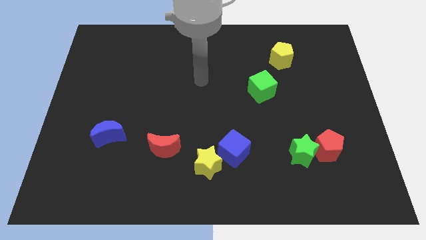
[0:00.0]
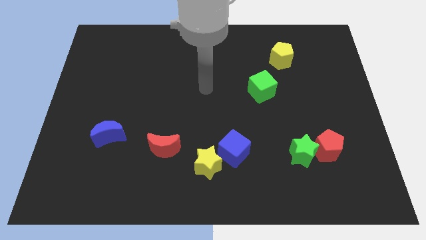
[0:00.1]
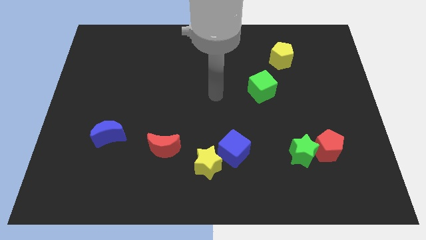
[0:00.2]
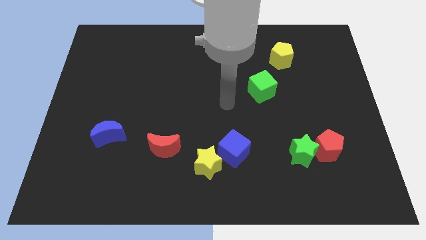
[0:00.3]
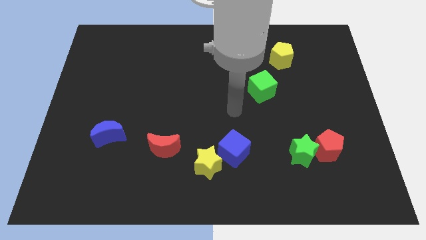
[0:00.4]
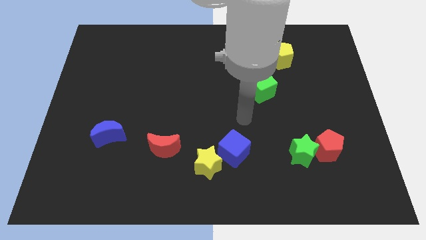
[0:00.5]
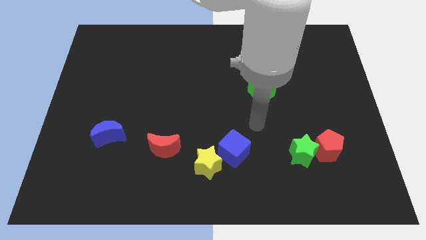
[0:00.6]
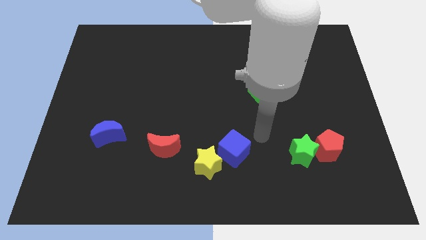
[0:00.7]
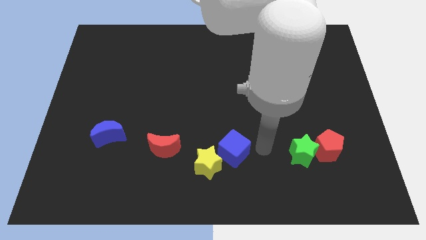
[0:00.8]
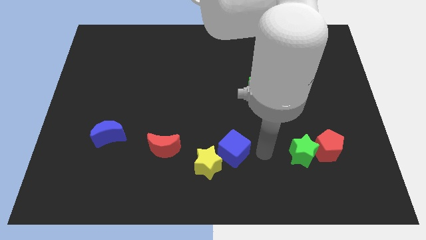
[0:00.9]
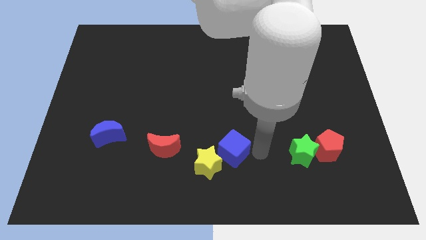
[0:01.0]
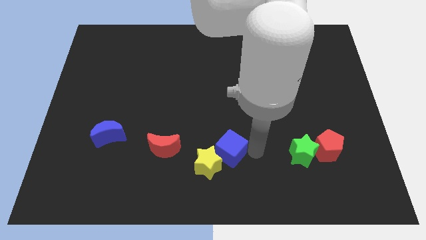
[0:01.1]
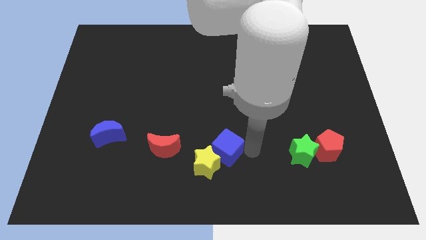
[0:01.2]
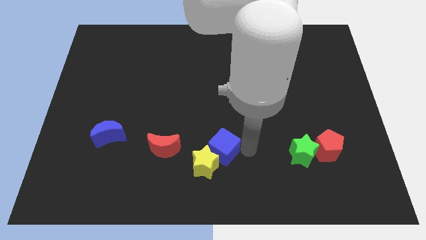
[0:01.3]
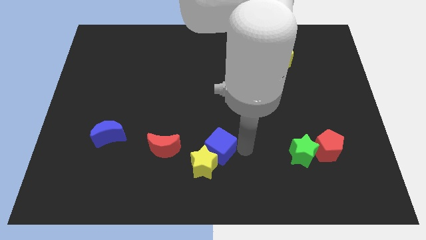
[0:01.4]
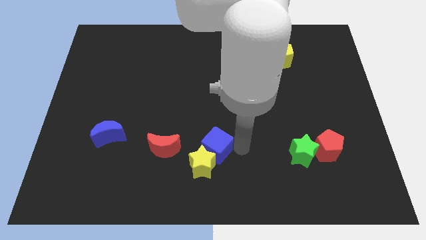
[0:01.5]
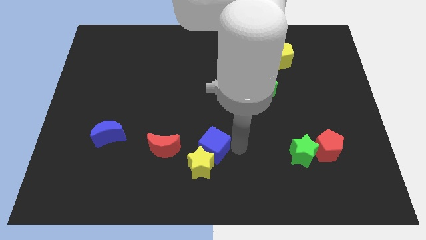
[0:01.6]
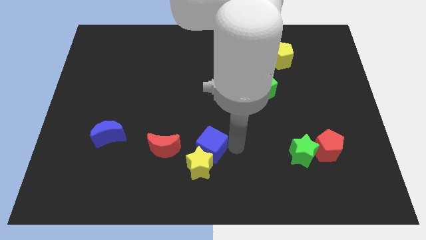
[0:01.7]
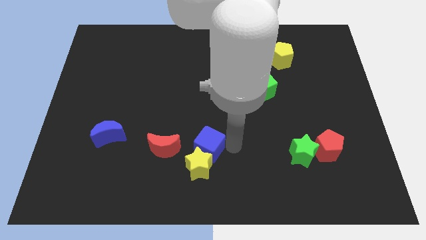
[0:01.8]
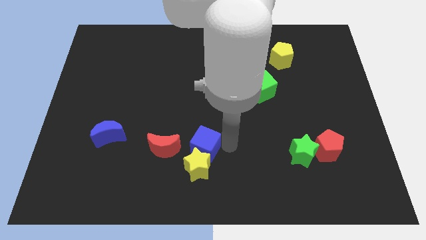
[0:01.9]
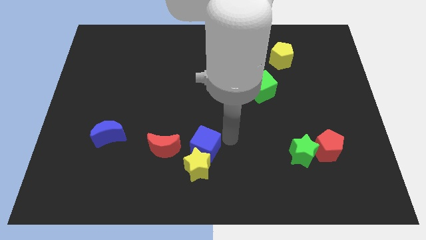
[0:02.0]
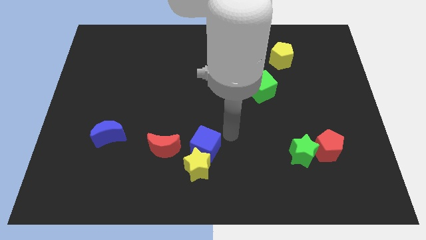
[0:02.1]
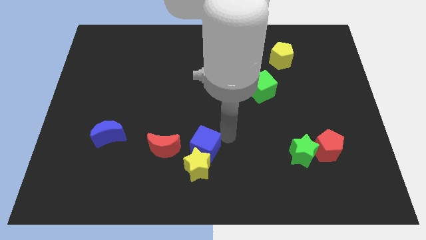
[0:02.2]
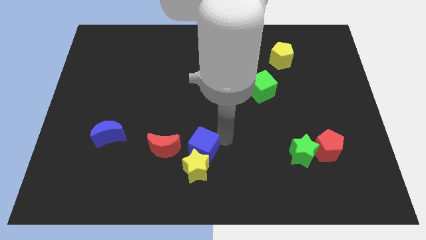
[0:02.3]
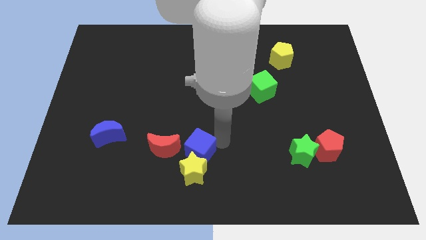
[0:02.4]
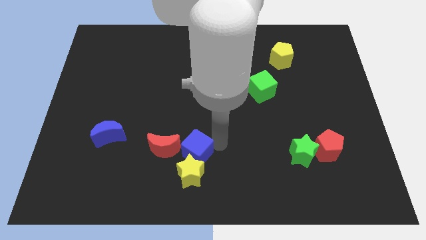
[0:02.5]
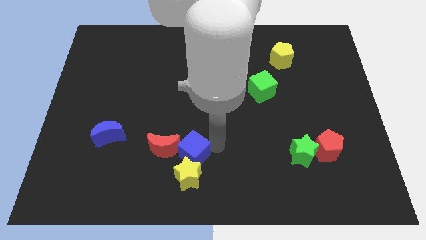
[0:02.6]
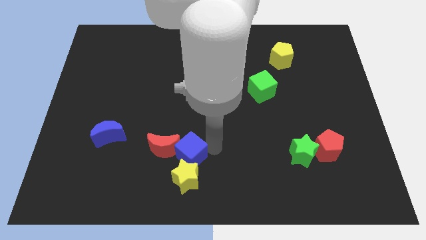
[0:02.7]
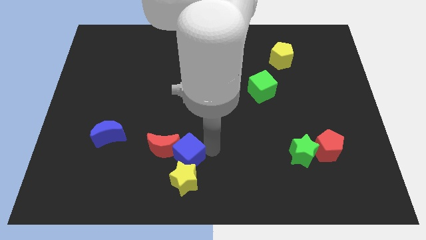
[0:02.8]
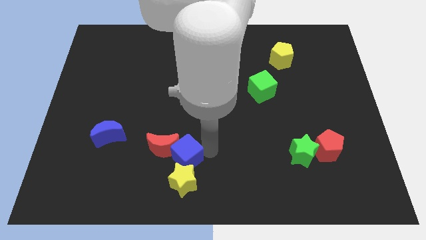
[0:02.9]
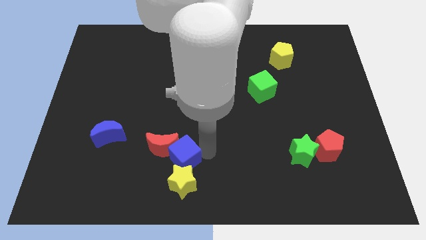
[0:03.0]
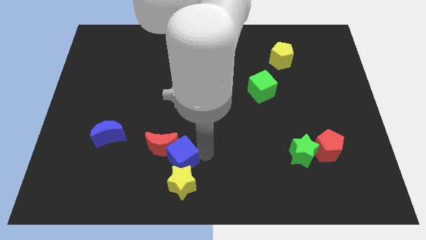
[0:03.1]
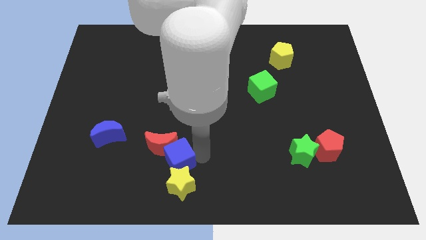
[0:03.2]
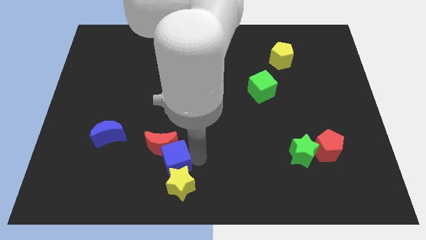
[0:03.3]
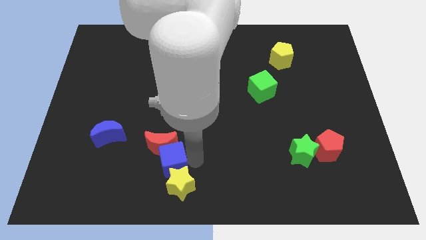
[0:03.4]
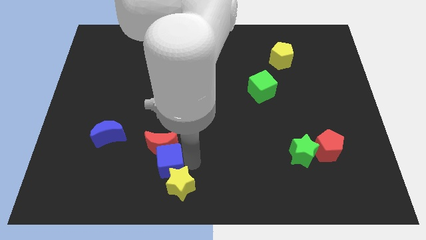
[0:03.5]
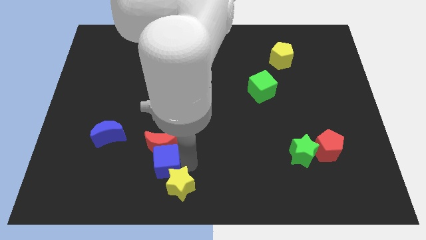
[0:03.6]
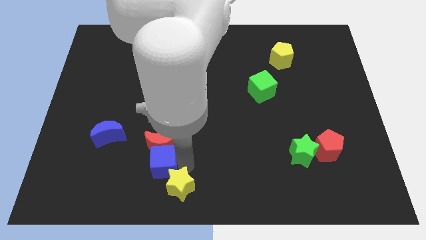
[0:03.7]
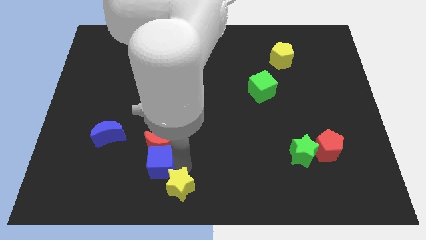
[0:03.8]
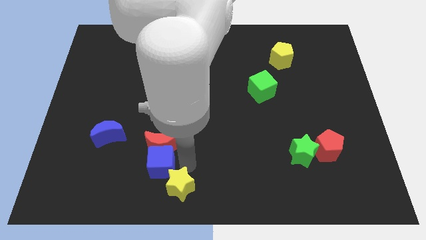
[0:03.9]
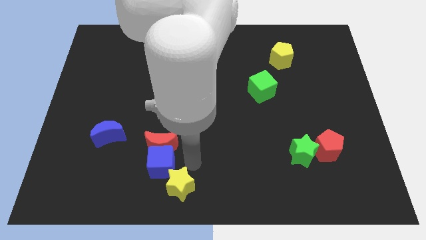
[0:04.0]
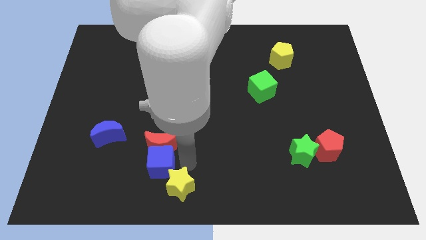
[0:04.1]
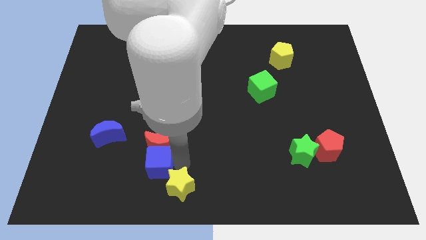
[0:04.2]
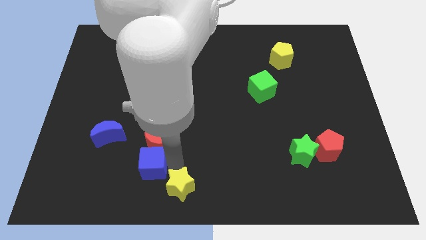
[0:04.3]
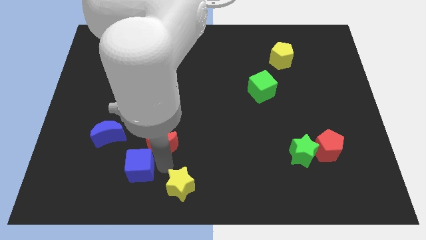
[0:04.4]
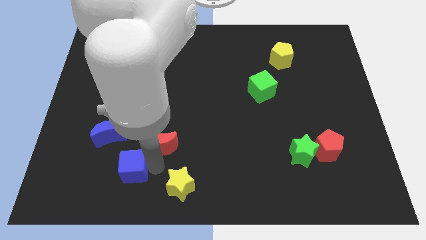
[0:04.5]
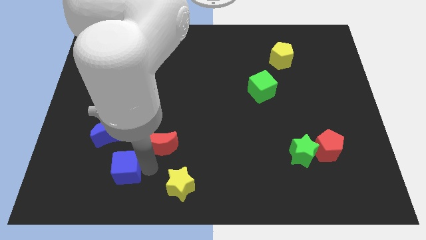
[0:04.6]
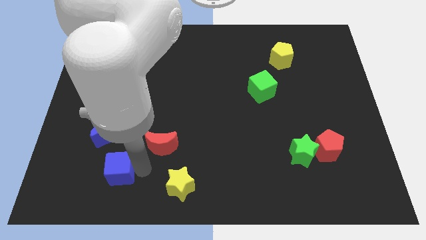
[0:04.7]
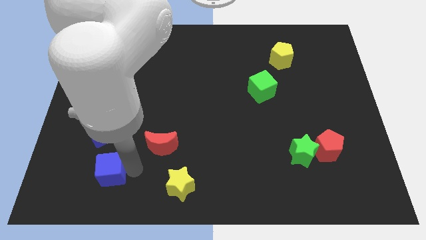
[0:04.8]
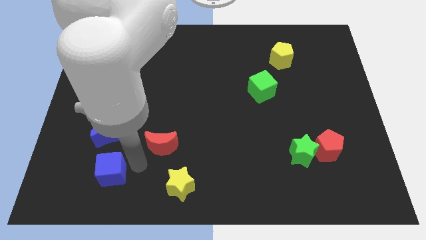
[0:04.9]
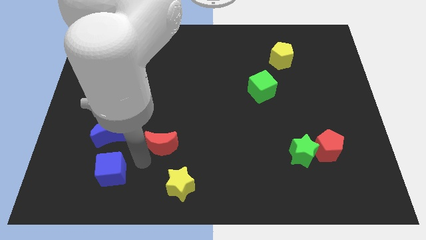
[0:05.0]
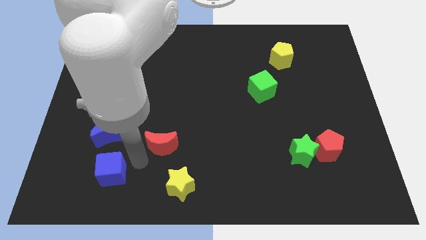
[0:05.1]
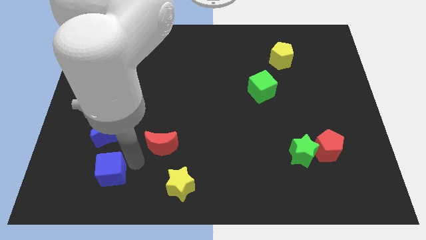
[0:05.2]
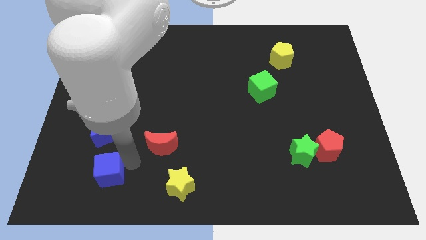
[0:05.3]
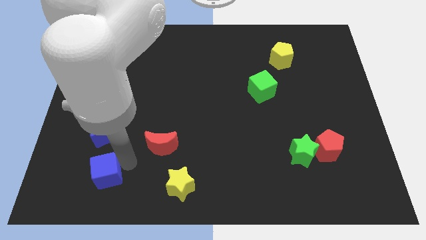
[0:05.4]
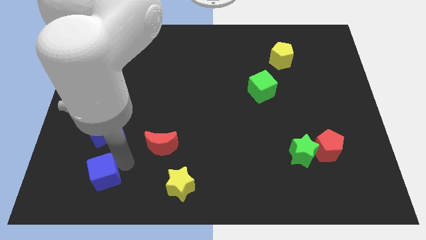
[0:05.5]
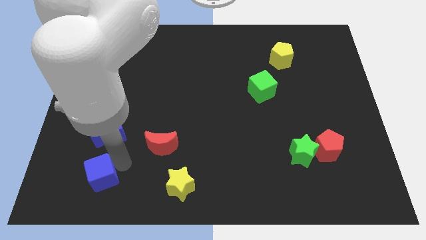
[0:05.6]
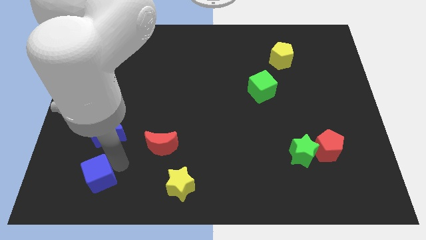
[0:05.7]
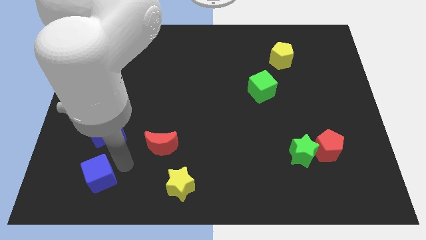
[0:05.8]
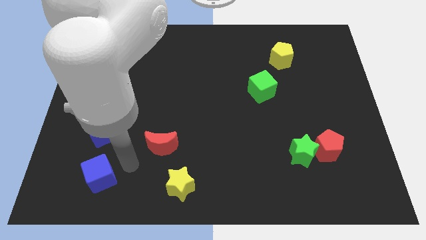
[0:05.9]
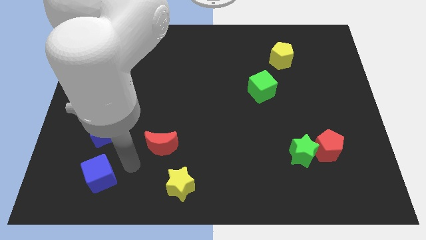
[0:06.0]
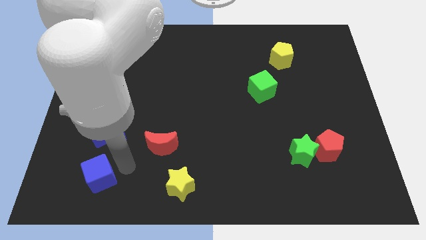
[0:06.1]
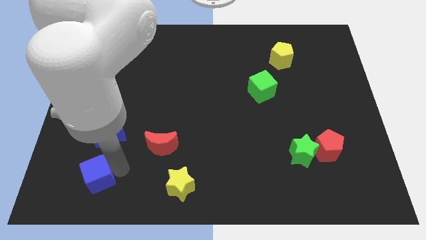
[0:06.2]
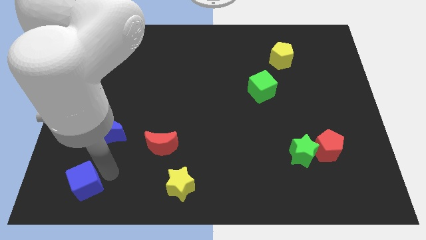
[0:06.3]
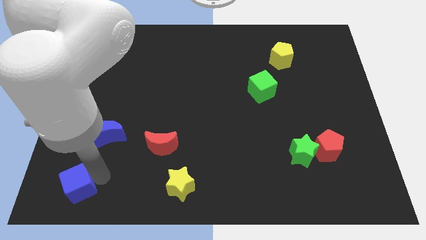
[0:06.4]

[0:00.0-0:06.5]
move the blue cube to the lower left corner

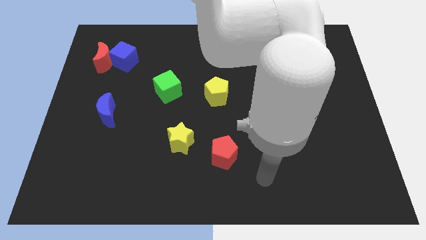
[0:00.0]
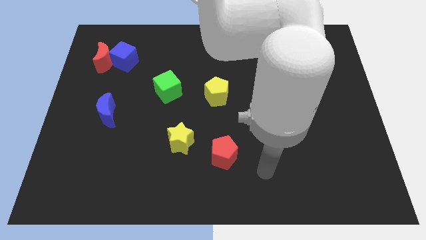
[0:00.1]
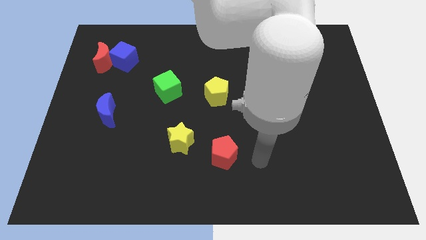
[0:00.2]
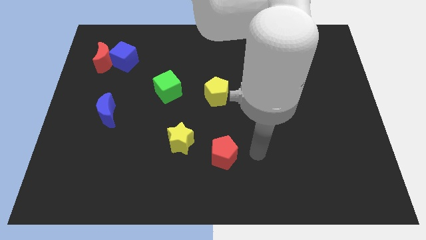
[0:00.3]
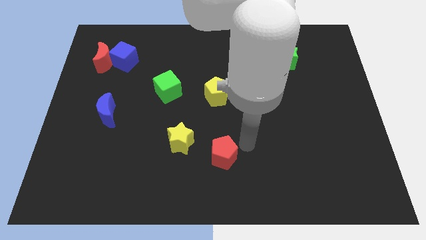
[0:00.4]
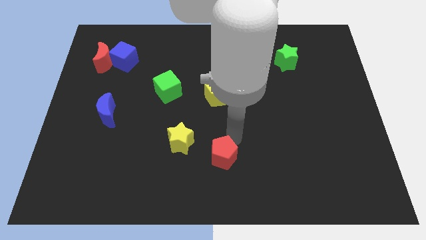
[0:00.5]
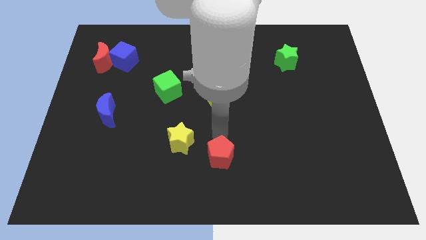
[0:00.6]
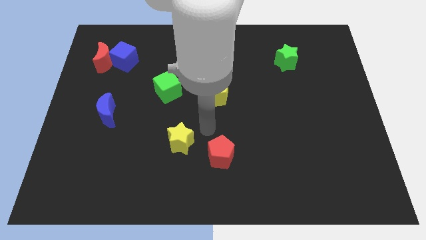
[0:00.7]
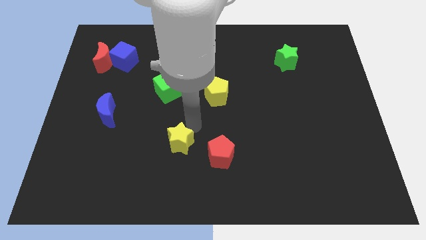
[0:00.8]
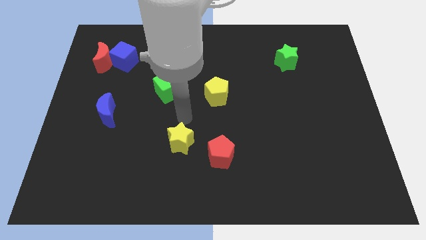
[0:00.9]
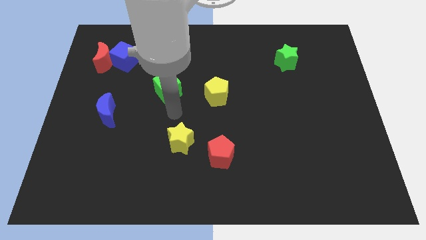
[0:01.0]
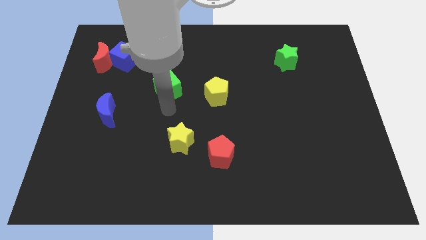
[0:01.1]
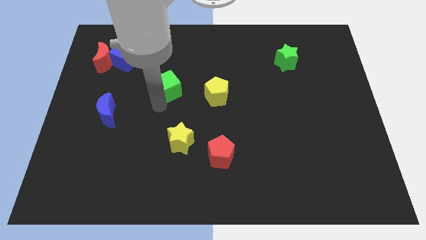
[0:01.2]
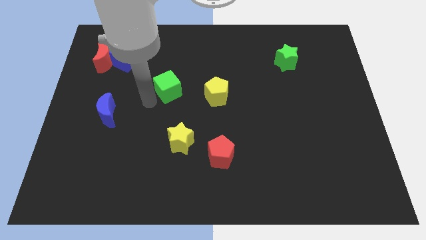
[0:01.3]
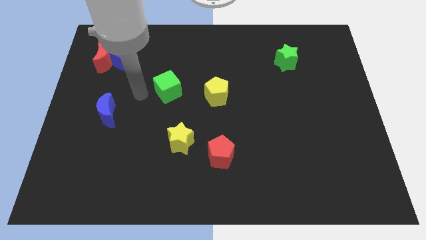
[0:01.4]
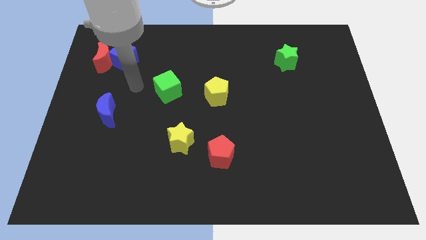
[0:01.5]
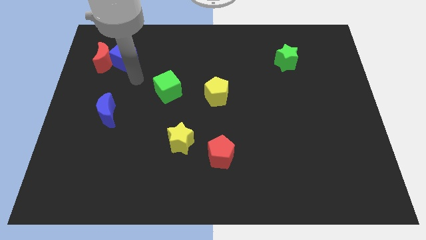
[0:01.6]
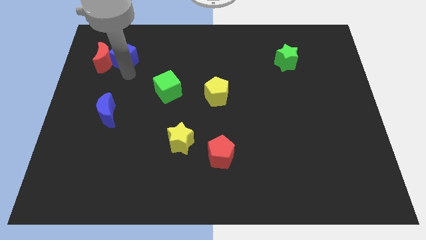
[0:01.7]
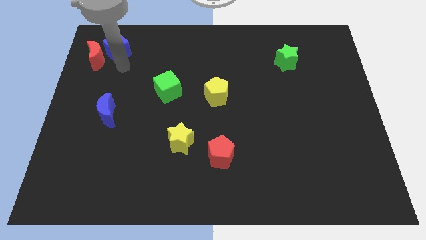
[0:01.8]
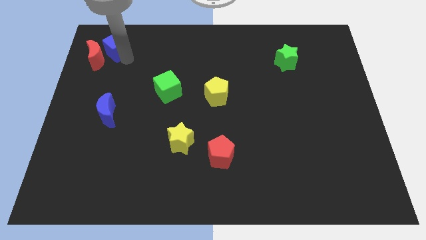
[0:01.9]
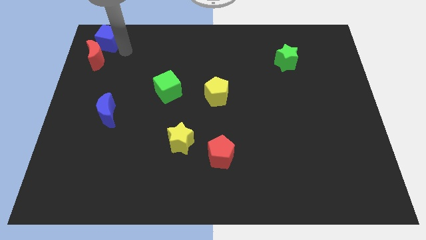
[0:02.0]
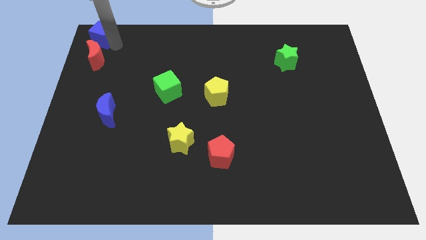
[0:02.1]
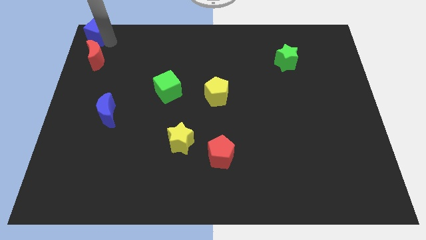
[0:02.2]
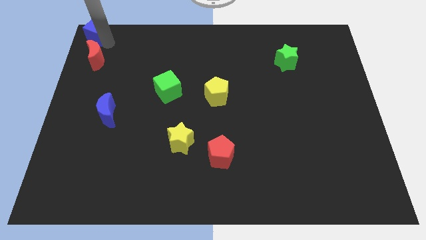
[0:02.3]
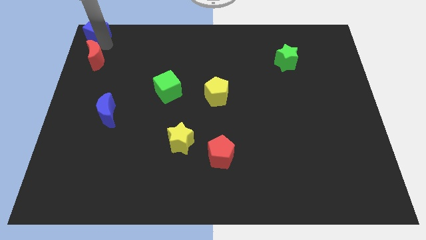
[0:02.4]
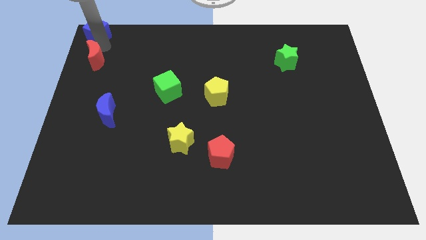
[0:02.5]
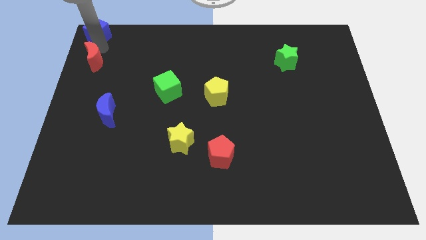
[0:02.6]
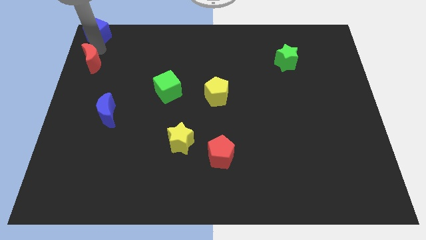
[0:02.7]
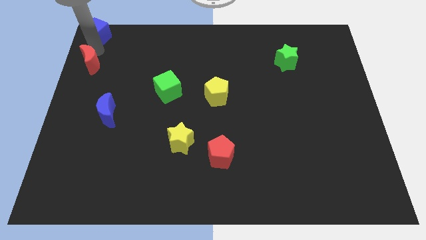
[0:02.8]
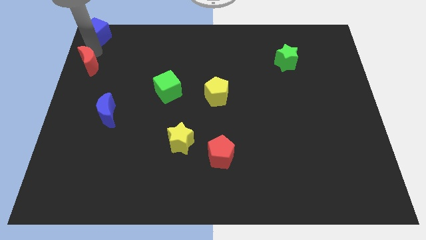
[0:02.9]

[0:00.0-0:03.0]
slide the red moon to the left side of the board
